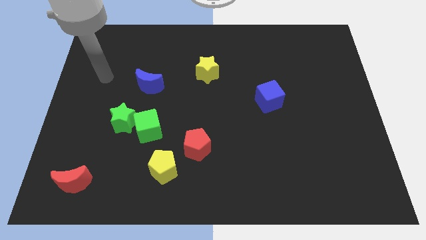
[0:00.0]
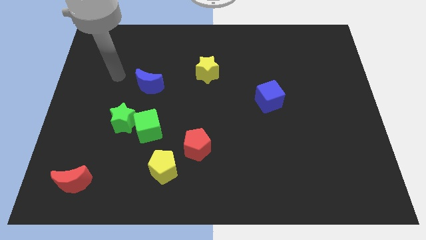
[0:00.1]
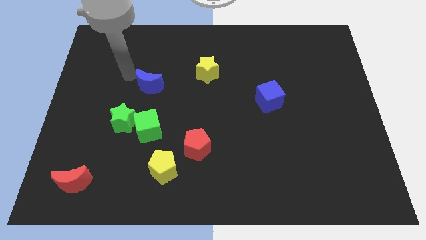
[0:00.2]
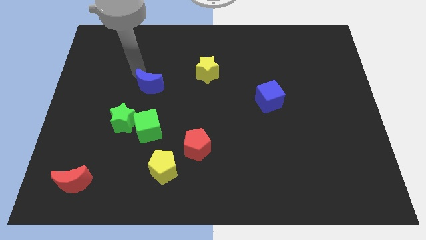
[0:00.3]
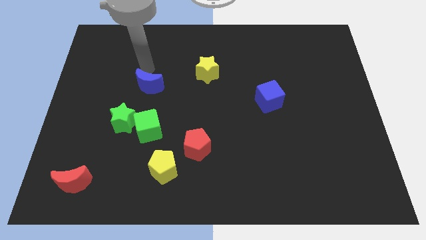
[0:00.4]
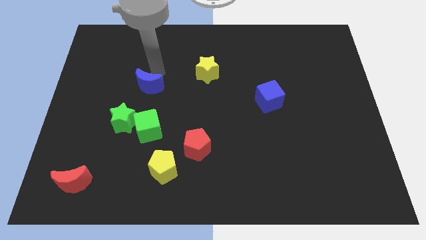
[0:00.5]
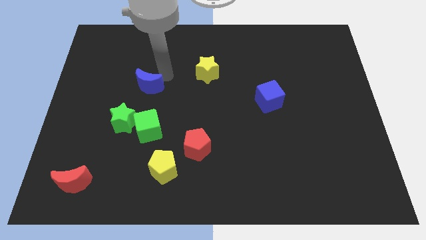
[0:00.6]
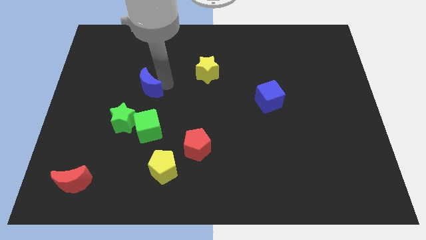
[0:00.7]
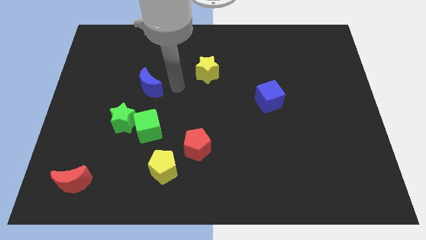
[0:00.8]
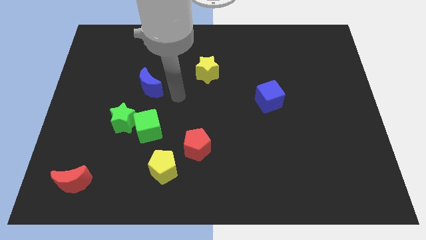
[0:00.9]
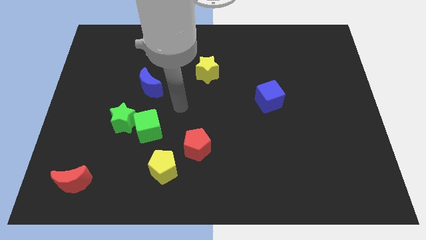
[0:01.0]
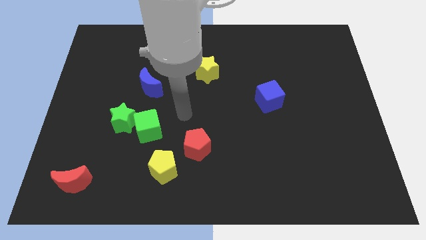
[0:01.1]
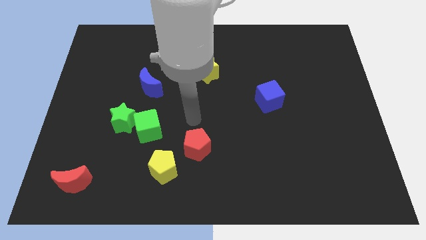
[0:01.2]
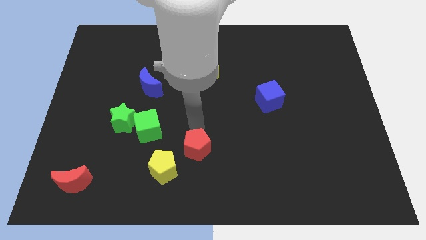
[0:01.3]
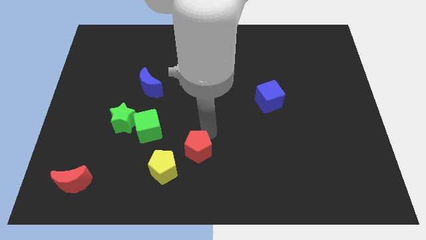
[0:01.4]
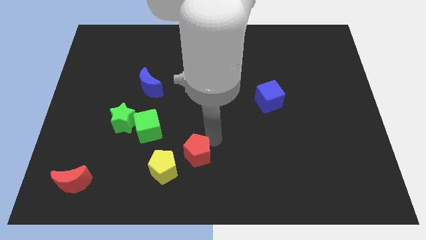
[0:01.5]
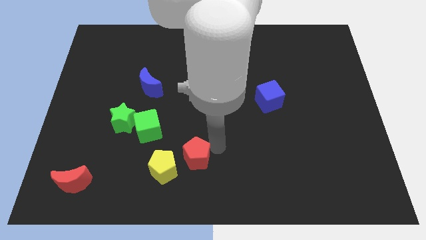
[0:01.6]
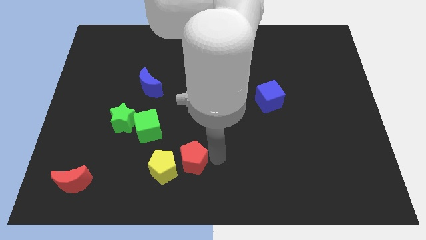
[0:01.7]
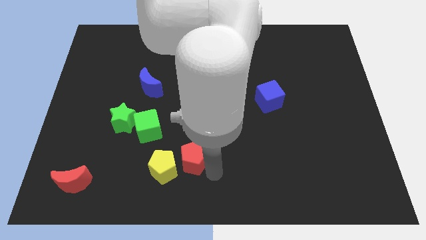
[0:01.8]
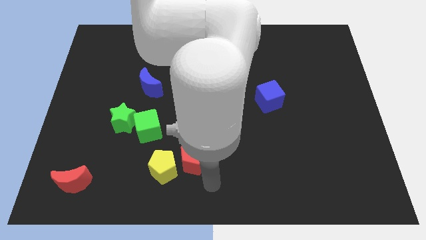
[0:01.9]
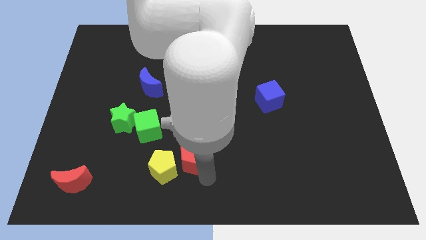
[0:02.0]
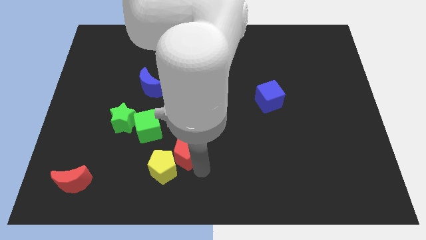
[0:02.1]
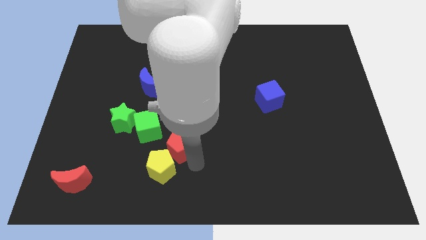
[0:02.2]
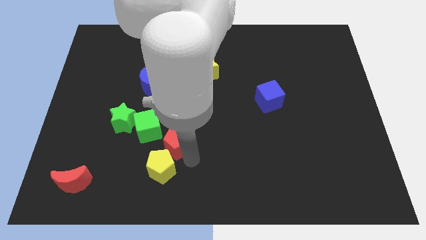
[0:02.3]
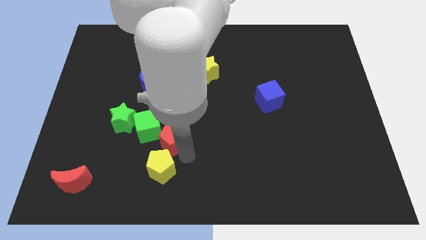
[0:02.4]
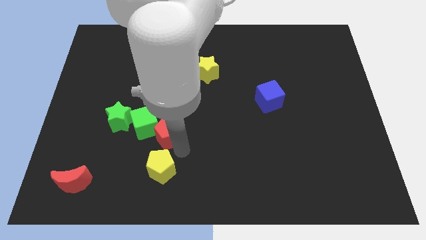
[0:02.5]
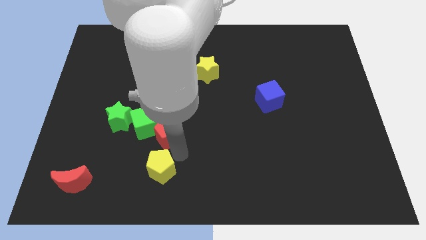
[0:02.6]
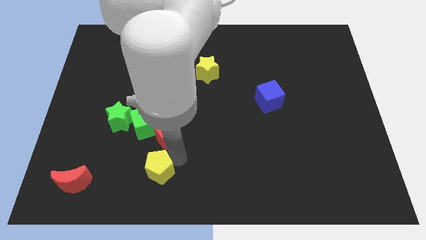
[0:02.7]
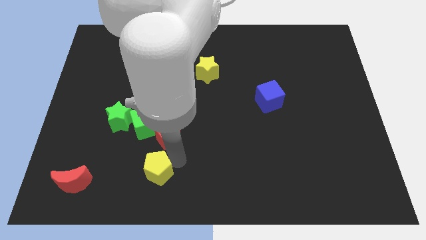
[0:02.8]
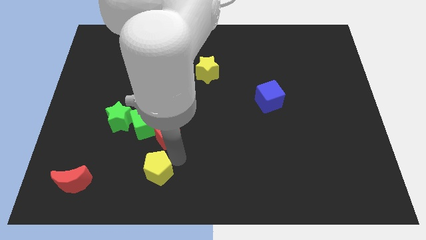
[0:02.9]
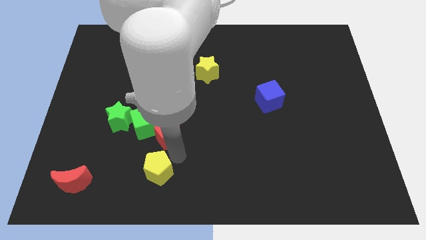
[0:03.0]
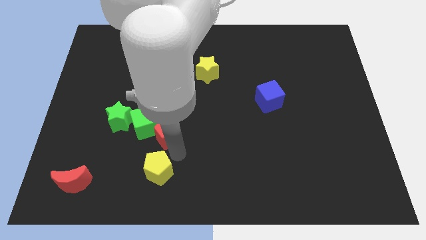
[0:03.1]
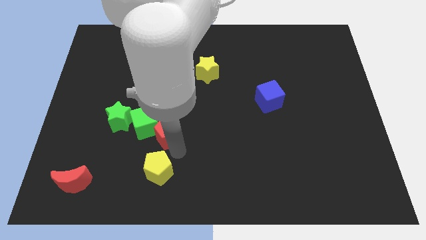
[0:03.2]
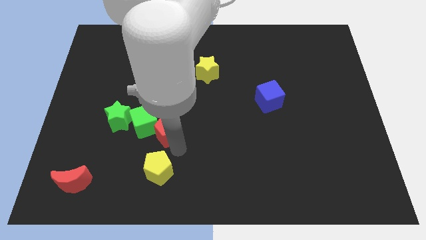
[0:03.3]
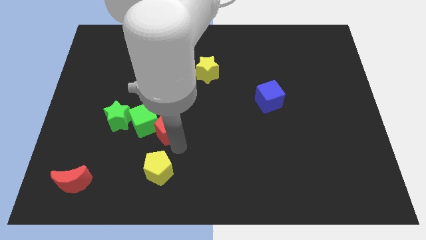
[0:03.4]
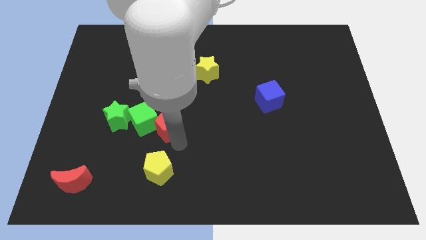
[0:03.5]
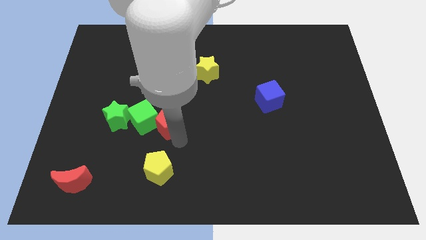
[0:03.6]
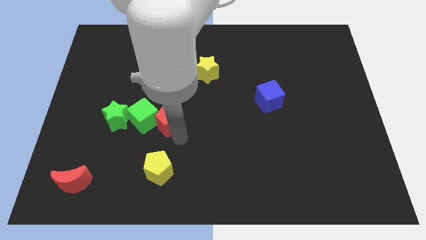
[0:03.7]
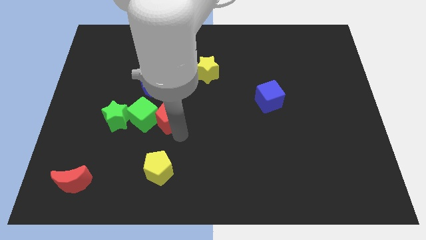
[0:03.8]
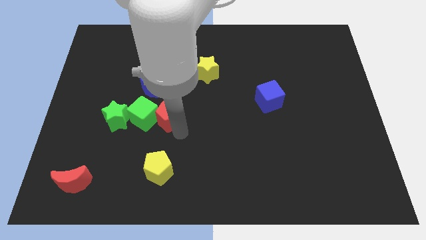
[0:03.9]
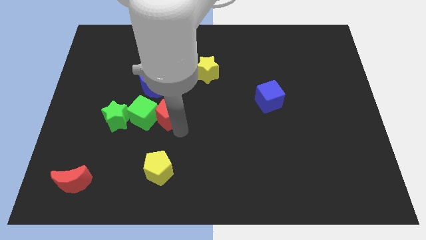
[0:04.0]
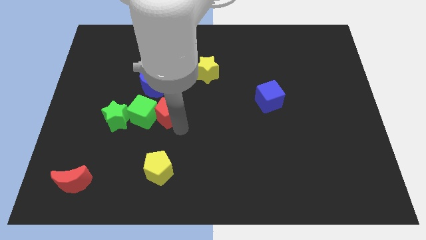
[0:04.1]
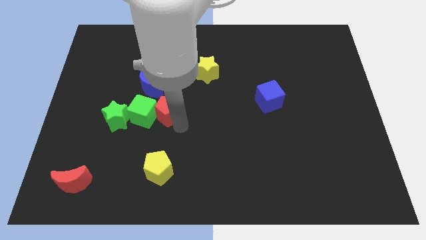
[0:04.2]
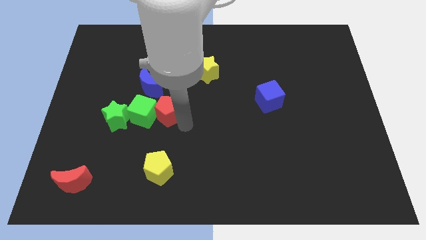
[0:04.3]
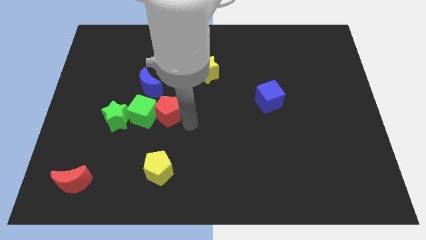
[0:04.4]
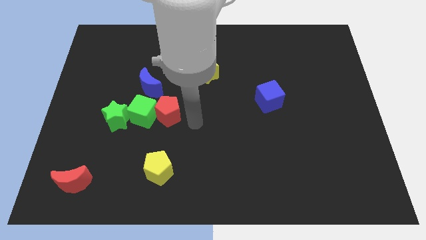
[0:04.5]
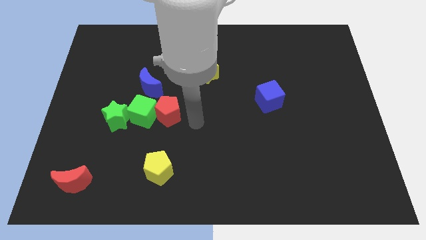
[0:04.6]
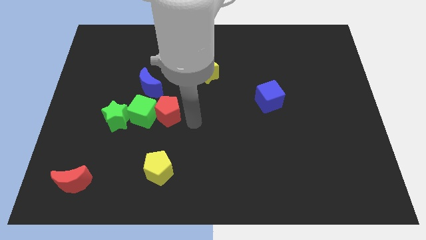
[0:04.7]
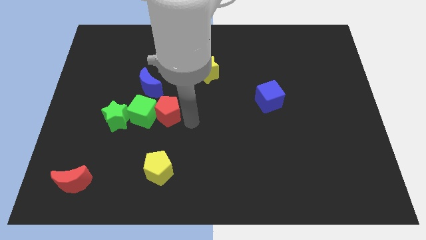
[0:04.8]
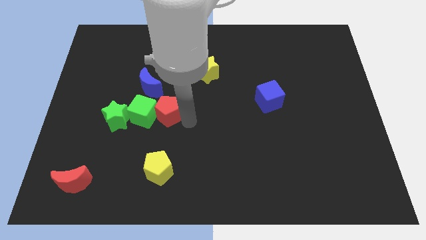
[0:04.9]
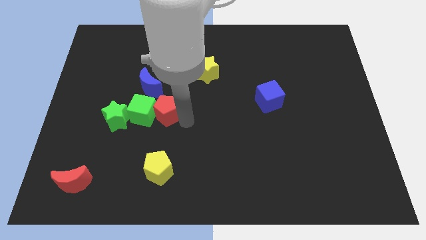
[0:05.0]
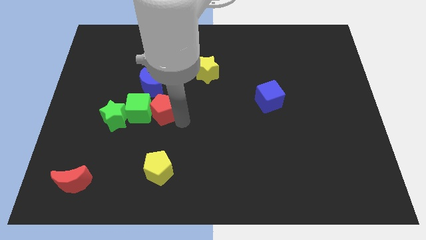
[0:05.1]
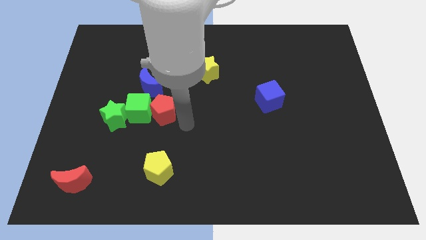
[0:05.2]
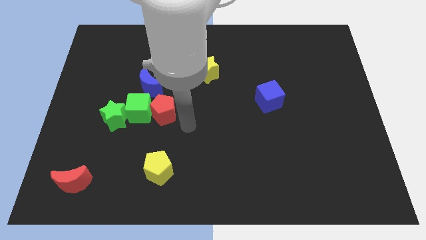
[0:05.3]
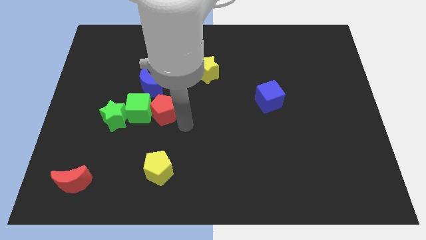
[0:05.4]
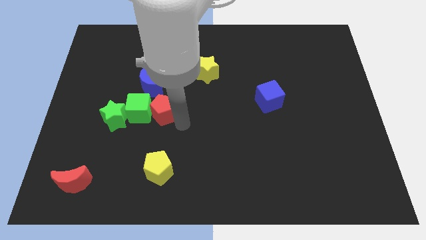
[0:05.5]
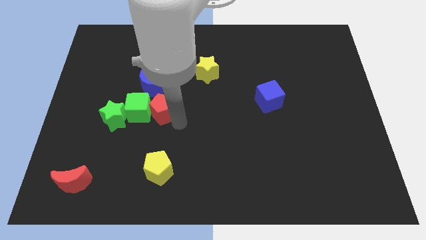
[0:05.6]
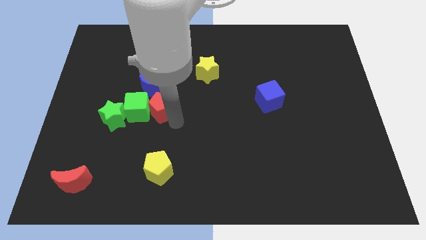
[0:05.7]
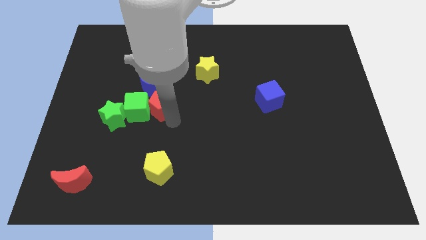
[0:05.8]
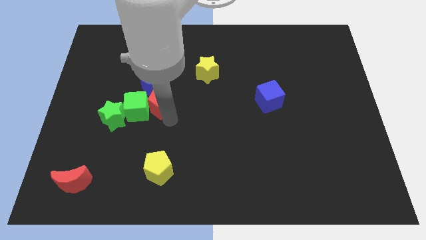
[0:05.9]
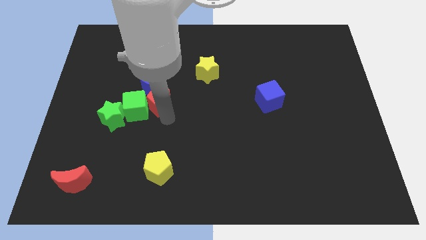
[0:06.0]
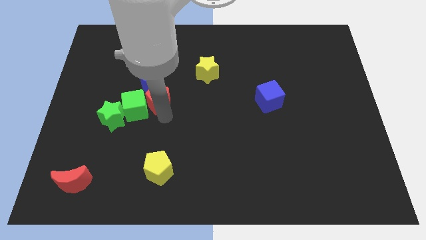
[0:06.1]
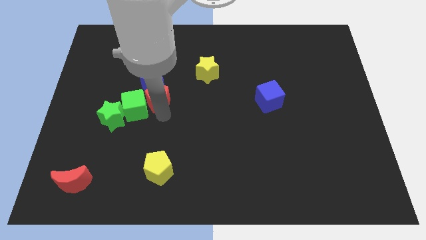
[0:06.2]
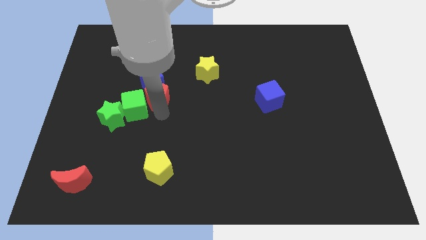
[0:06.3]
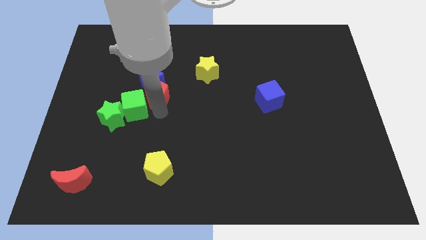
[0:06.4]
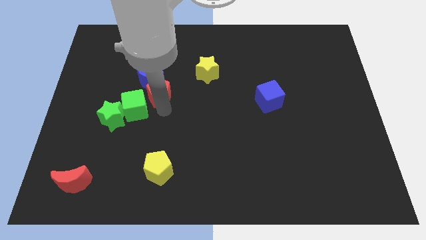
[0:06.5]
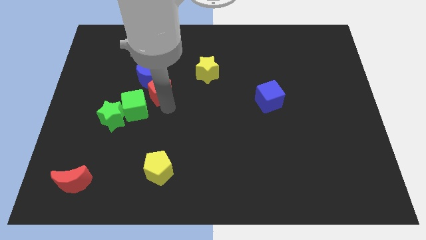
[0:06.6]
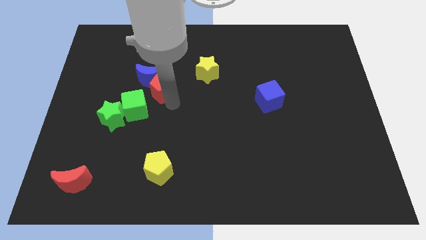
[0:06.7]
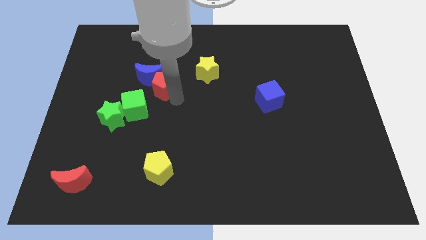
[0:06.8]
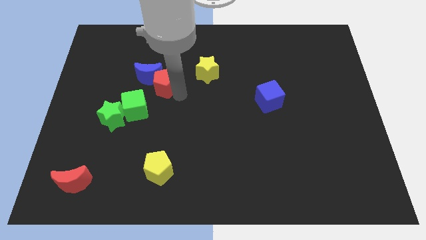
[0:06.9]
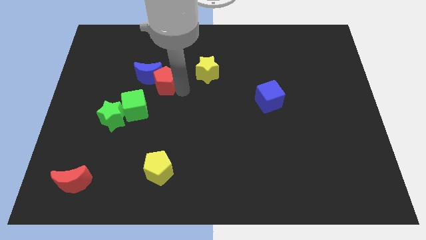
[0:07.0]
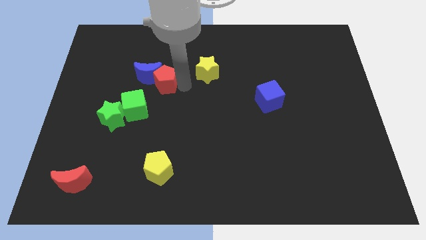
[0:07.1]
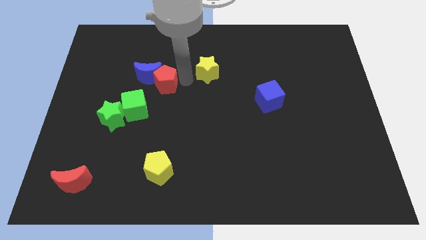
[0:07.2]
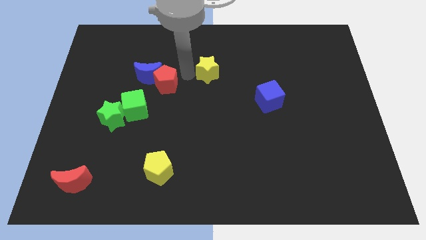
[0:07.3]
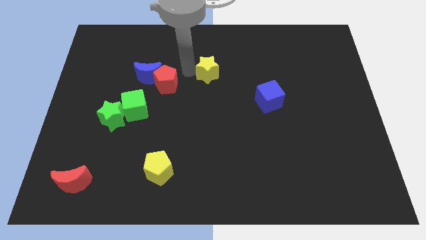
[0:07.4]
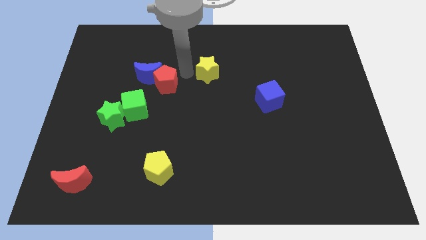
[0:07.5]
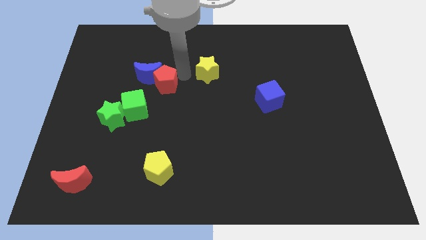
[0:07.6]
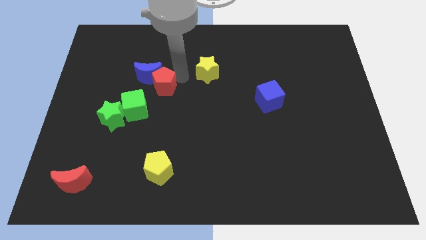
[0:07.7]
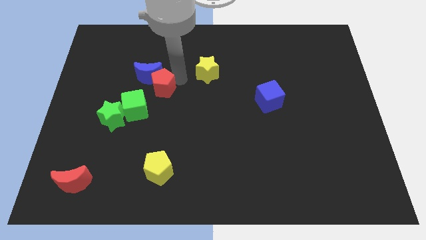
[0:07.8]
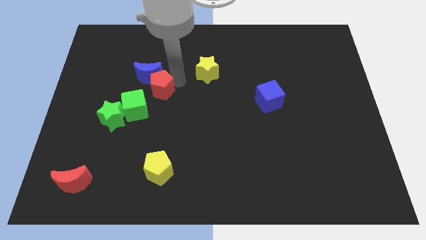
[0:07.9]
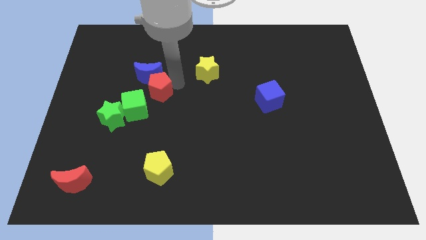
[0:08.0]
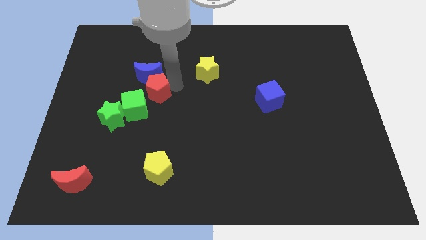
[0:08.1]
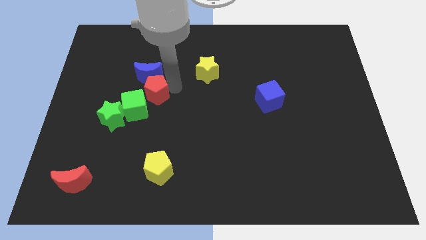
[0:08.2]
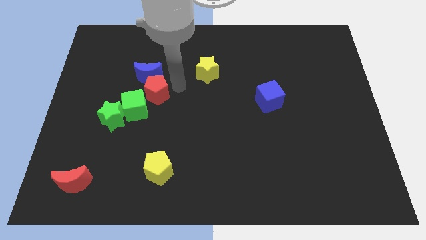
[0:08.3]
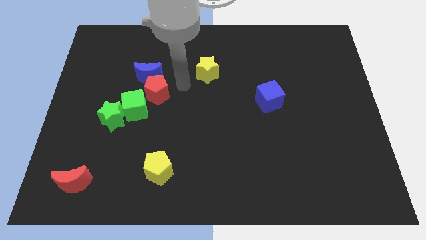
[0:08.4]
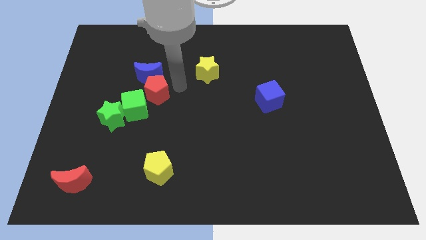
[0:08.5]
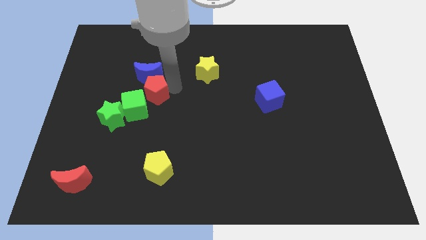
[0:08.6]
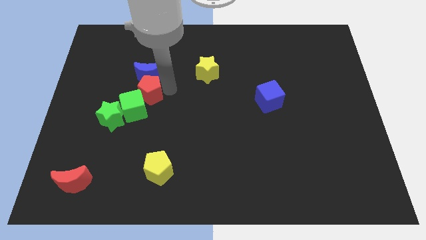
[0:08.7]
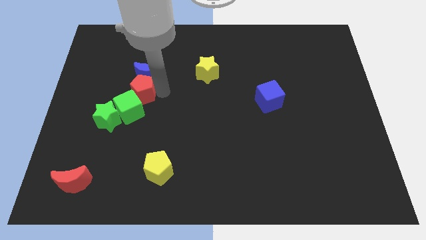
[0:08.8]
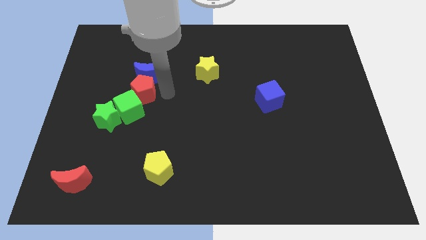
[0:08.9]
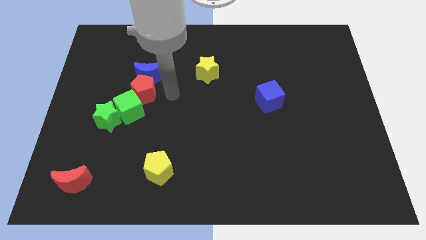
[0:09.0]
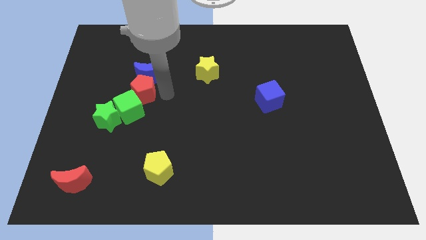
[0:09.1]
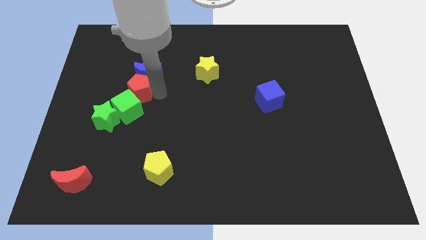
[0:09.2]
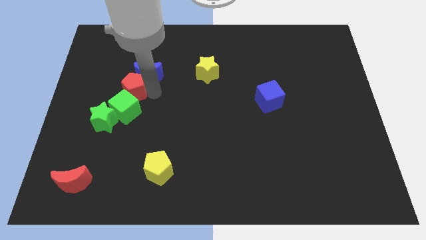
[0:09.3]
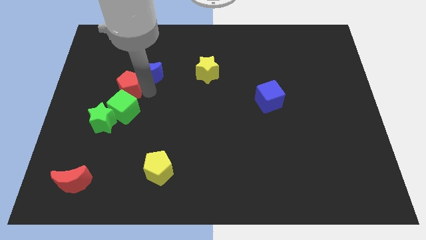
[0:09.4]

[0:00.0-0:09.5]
slide the red pentagon to the left of the blue moon
